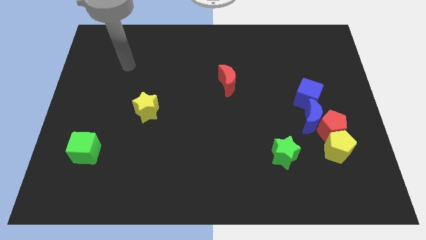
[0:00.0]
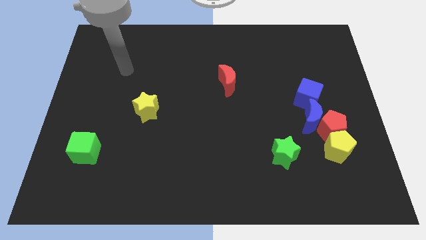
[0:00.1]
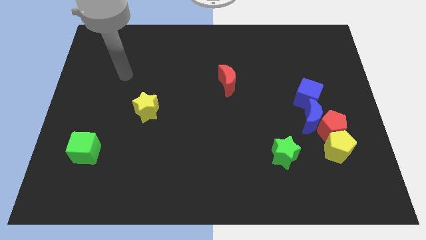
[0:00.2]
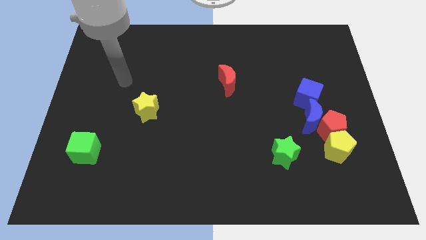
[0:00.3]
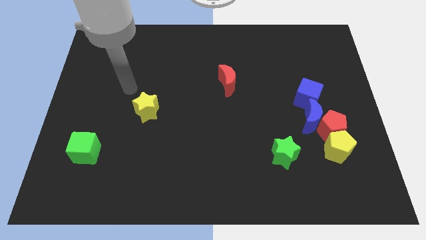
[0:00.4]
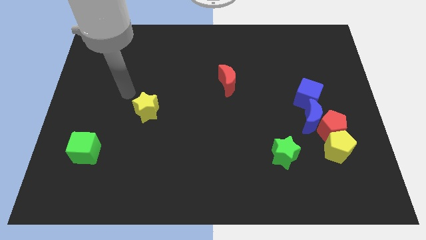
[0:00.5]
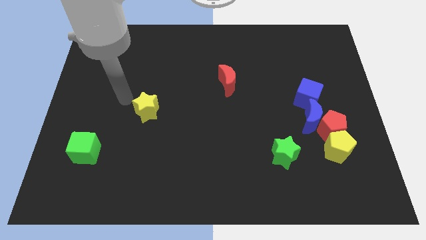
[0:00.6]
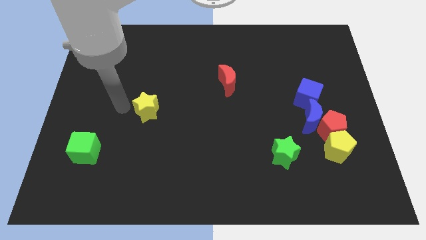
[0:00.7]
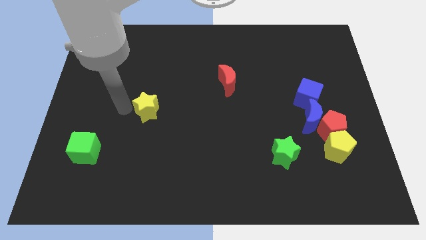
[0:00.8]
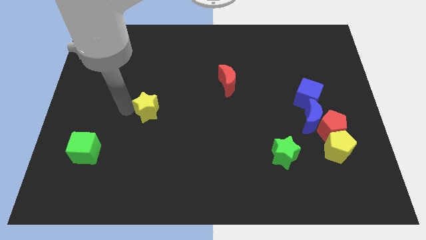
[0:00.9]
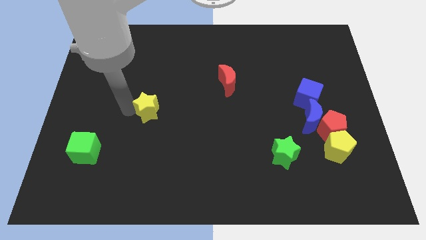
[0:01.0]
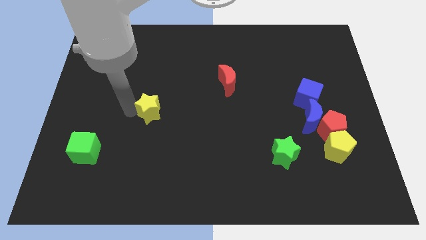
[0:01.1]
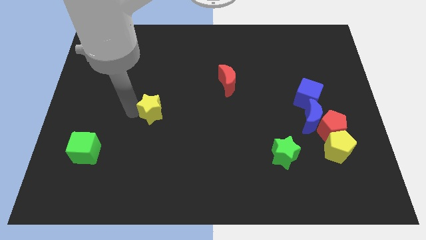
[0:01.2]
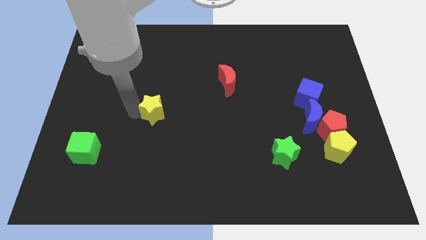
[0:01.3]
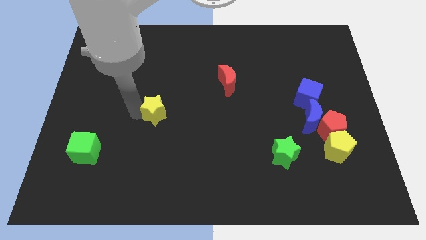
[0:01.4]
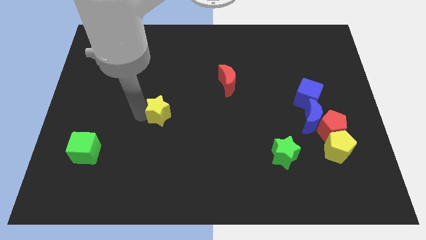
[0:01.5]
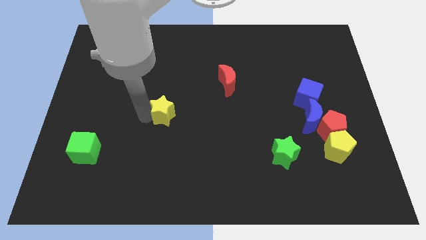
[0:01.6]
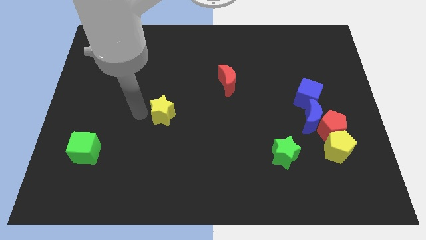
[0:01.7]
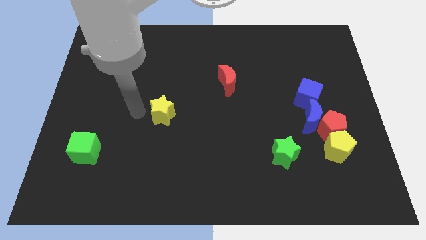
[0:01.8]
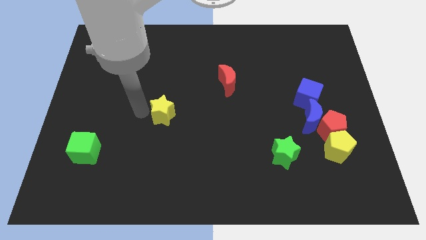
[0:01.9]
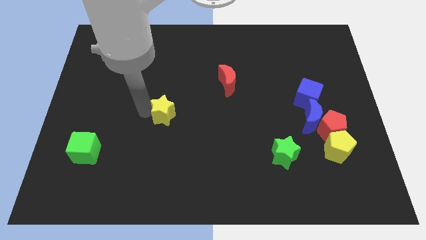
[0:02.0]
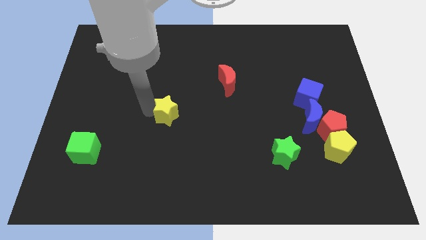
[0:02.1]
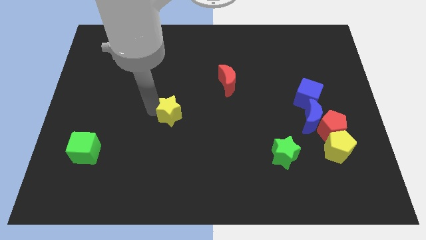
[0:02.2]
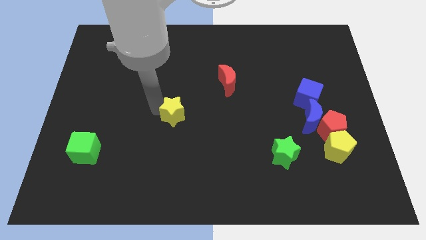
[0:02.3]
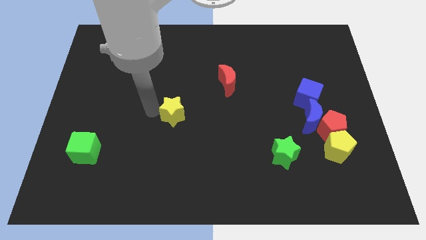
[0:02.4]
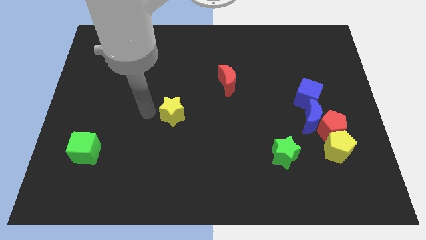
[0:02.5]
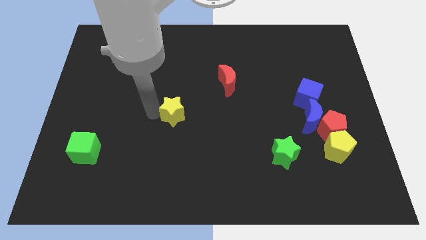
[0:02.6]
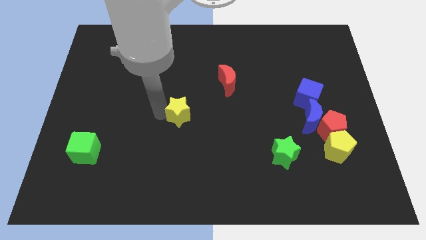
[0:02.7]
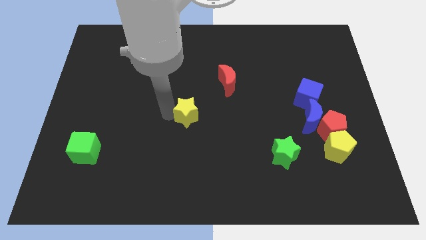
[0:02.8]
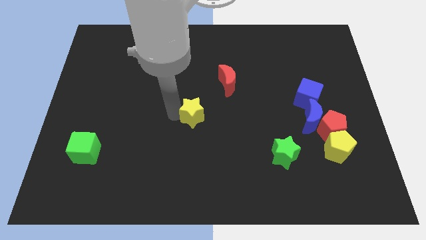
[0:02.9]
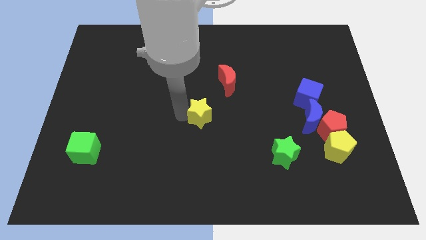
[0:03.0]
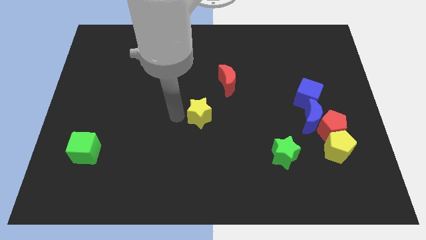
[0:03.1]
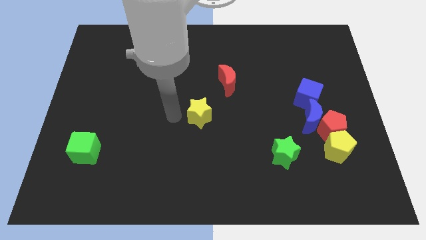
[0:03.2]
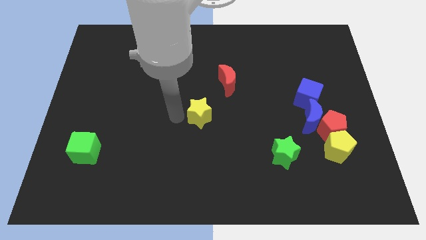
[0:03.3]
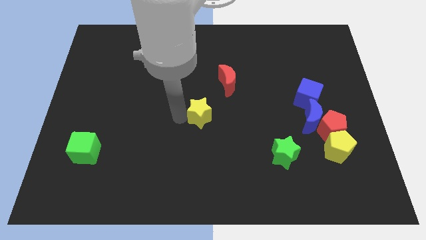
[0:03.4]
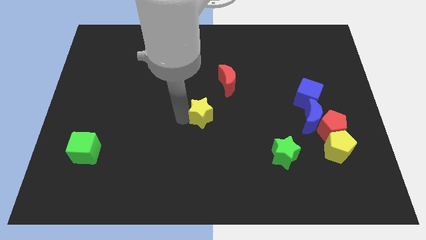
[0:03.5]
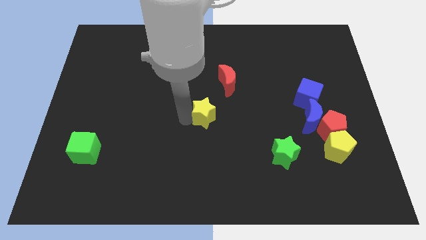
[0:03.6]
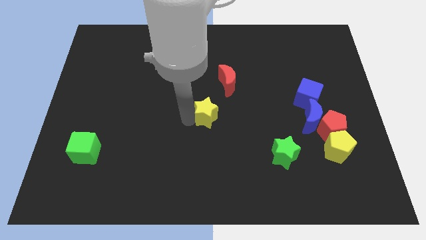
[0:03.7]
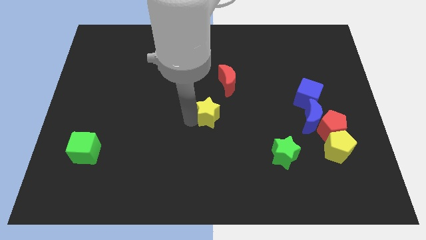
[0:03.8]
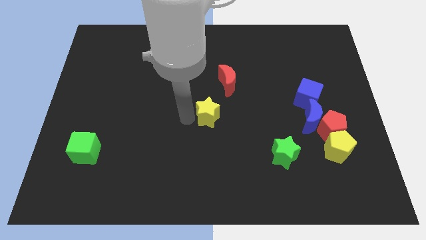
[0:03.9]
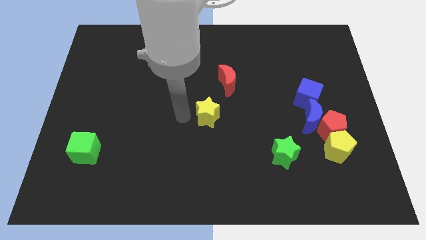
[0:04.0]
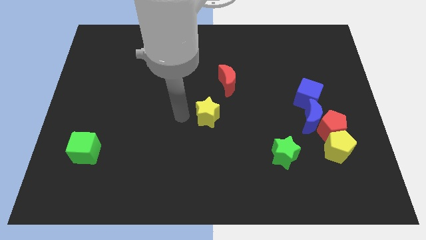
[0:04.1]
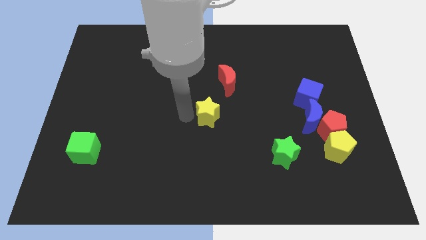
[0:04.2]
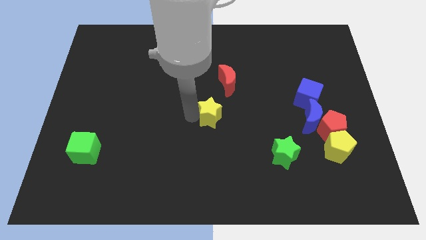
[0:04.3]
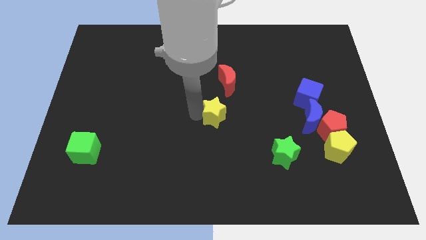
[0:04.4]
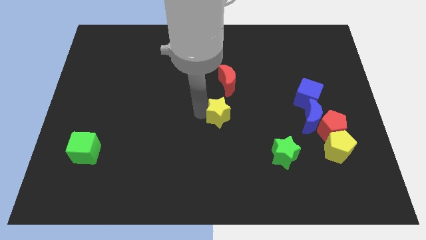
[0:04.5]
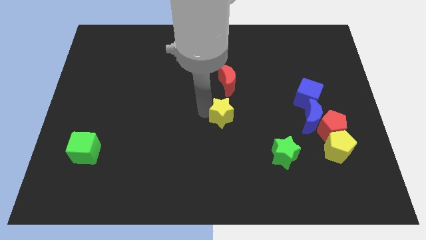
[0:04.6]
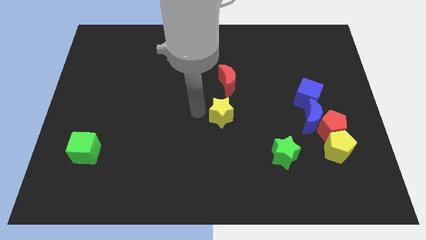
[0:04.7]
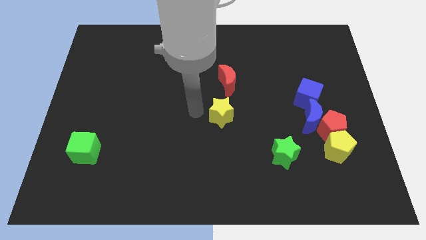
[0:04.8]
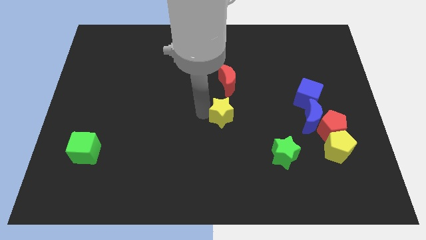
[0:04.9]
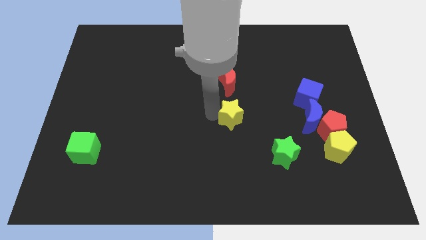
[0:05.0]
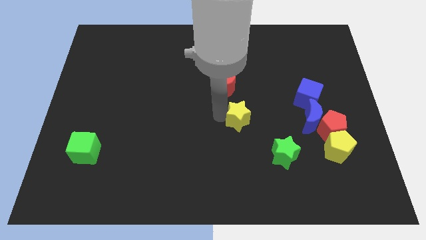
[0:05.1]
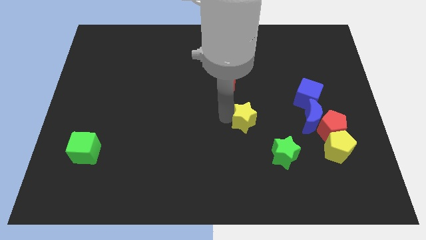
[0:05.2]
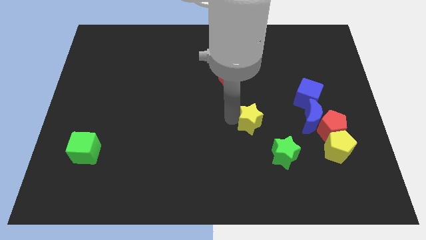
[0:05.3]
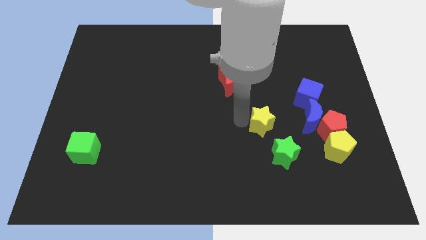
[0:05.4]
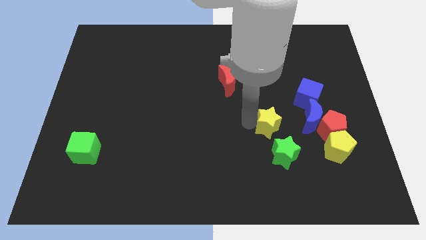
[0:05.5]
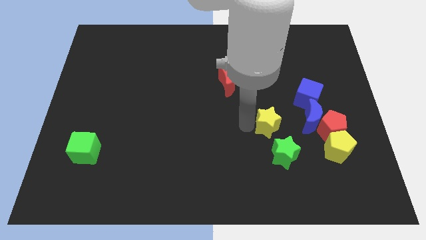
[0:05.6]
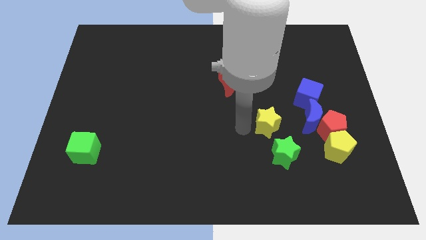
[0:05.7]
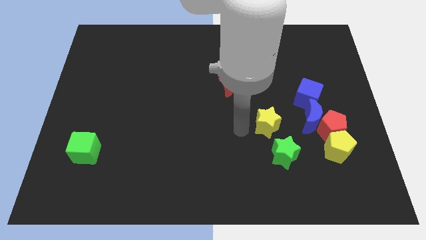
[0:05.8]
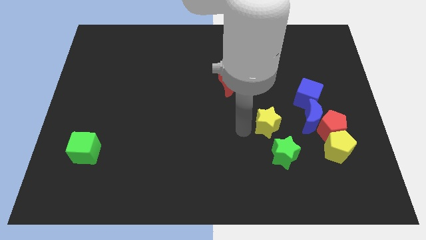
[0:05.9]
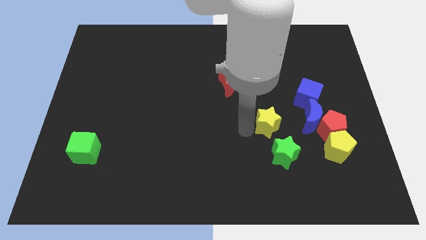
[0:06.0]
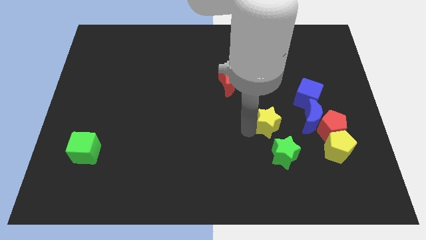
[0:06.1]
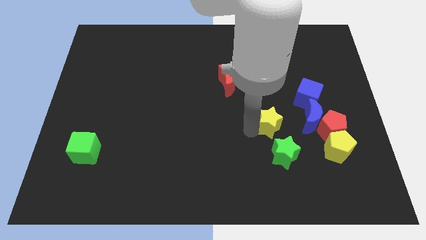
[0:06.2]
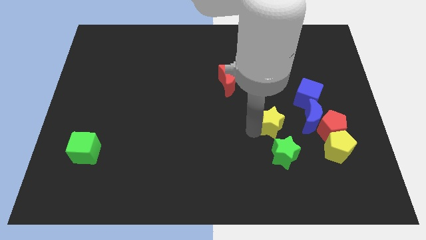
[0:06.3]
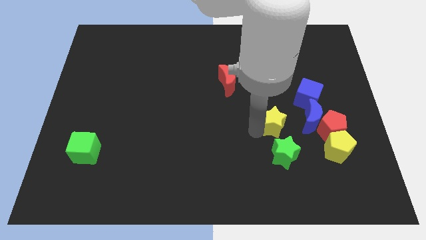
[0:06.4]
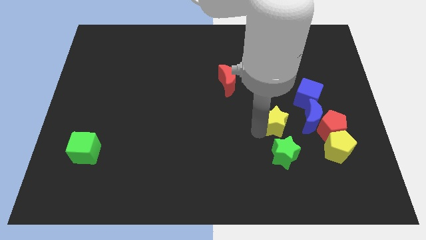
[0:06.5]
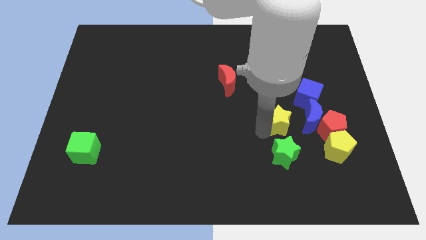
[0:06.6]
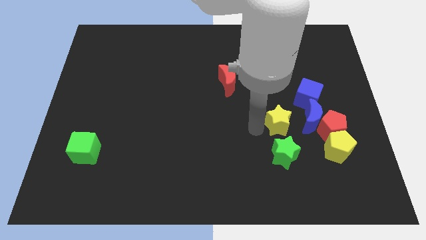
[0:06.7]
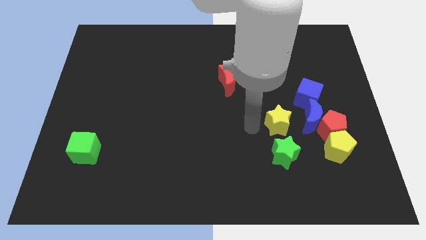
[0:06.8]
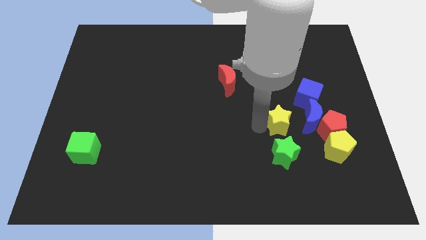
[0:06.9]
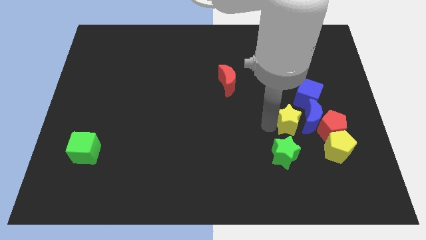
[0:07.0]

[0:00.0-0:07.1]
push the yellow star close to the blue moon
